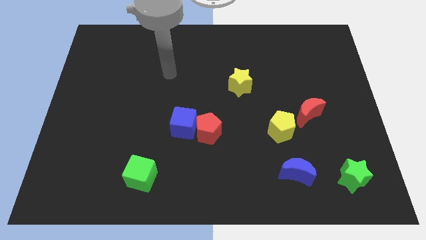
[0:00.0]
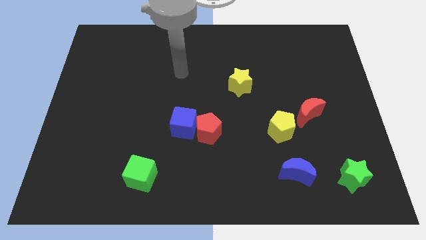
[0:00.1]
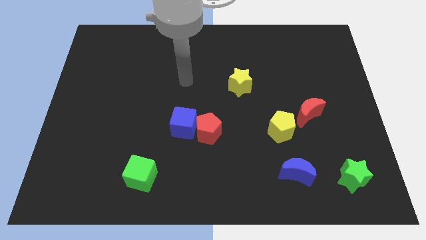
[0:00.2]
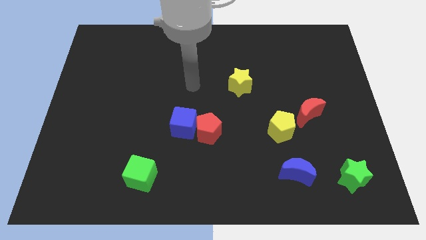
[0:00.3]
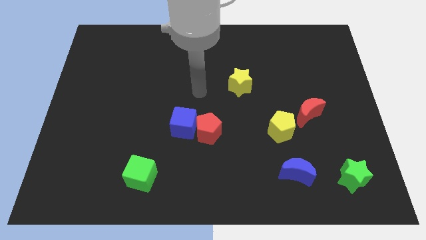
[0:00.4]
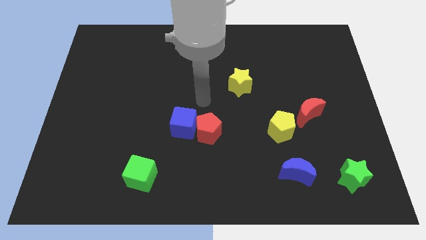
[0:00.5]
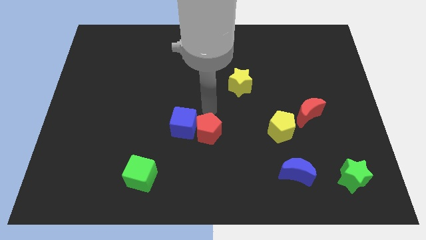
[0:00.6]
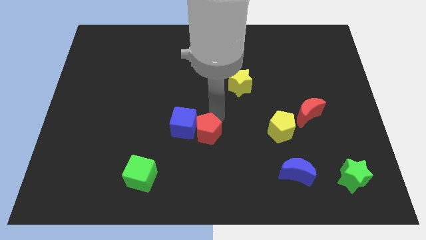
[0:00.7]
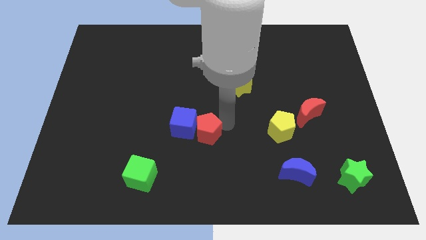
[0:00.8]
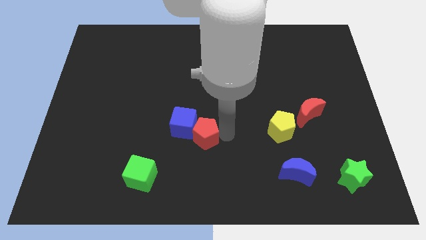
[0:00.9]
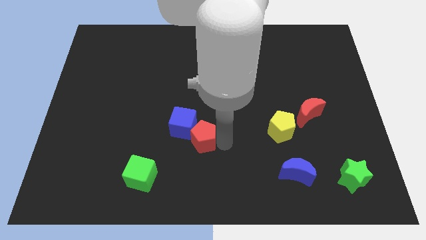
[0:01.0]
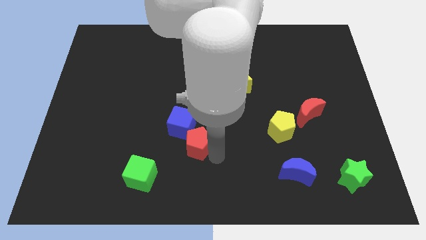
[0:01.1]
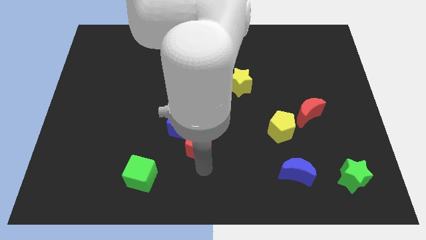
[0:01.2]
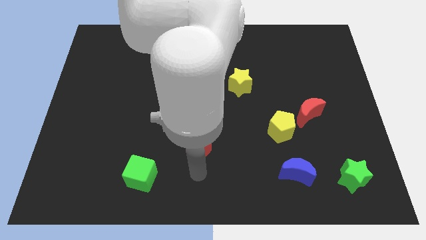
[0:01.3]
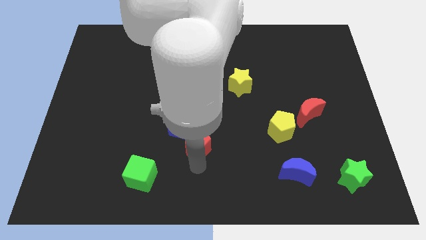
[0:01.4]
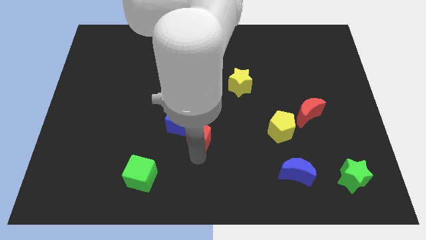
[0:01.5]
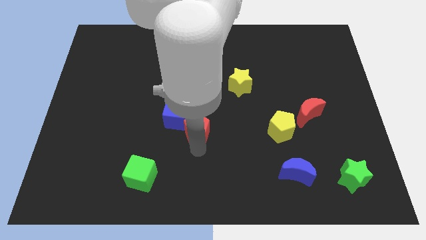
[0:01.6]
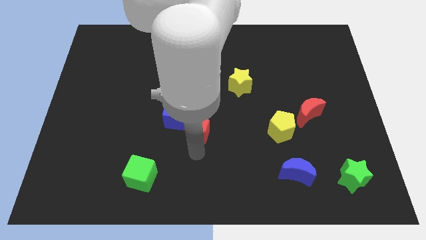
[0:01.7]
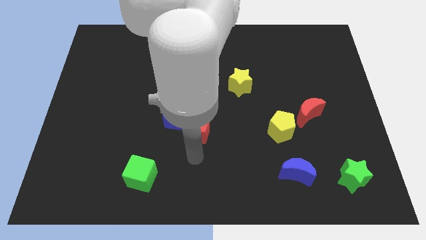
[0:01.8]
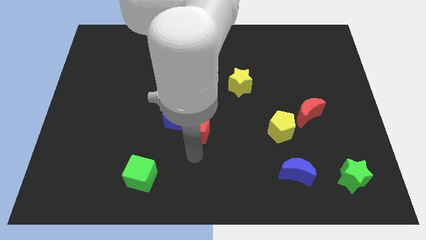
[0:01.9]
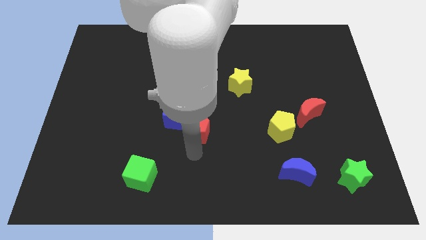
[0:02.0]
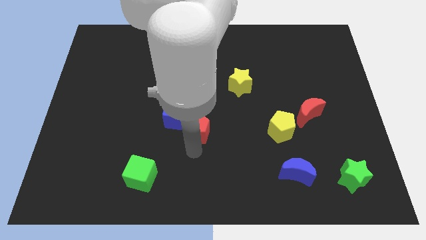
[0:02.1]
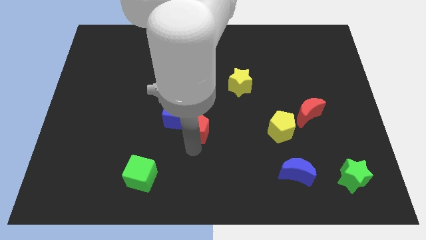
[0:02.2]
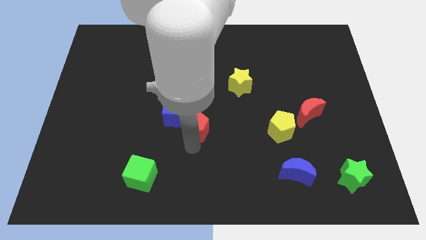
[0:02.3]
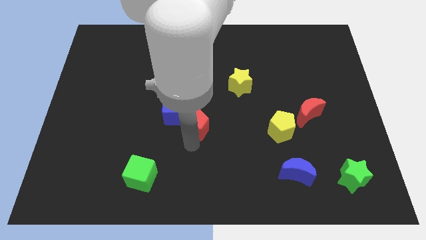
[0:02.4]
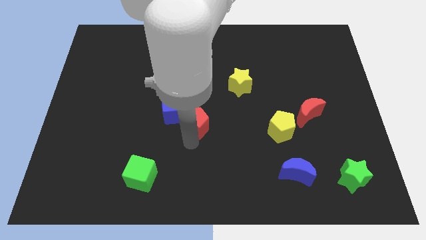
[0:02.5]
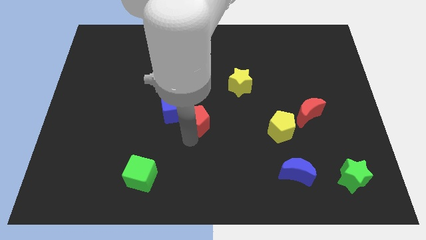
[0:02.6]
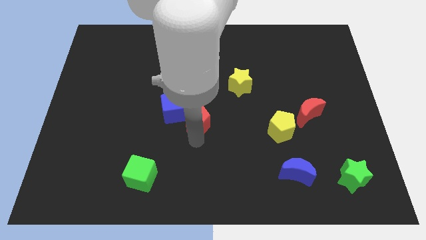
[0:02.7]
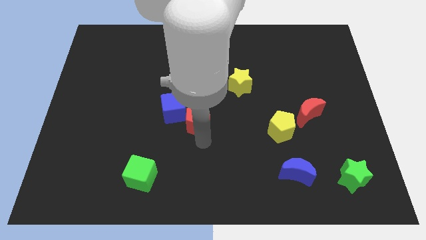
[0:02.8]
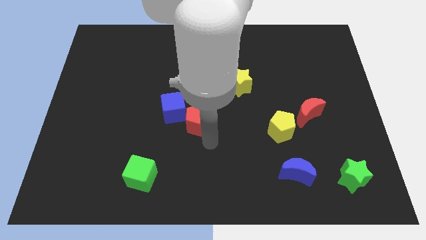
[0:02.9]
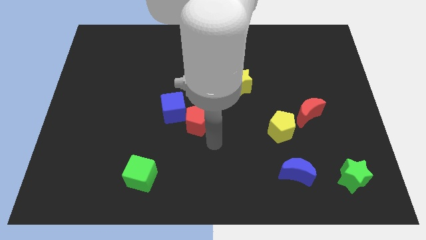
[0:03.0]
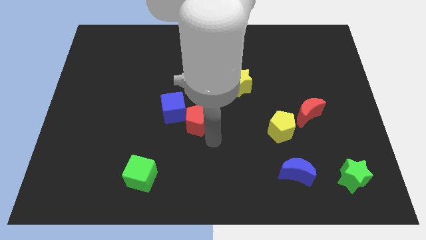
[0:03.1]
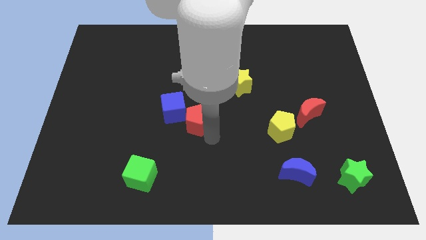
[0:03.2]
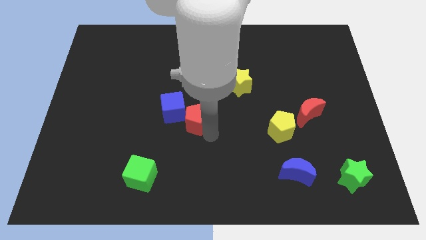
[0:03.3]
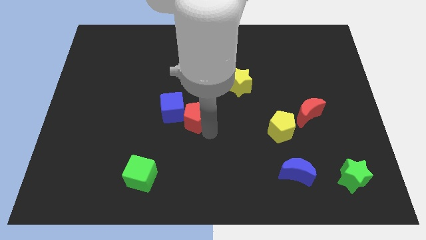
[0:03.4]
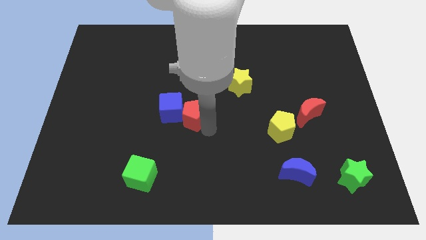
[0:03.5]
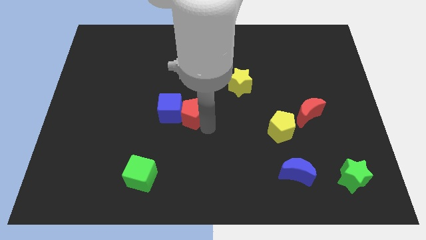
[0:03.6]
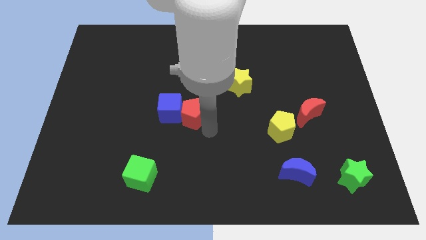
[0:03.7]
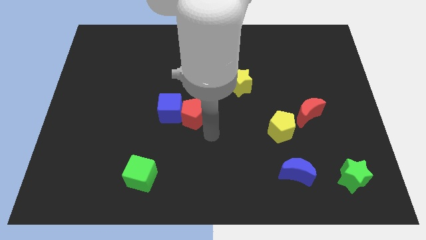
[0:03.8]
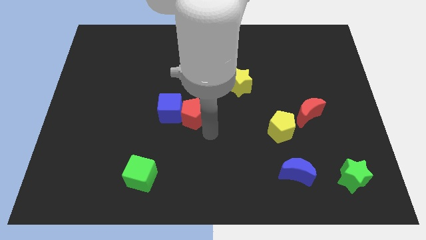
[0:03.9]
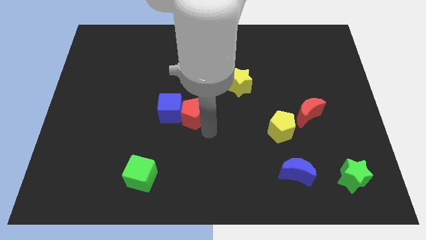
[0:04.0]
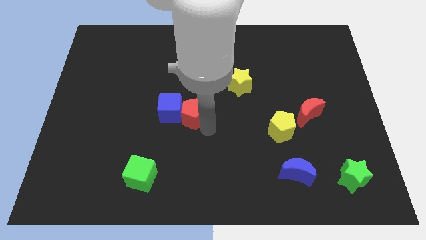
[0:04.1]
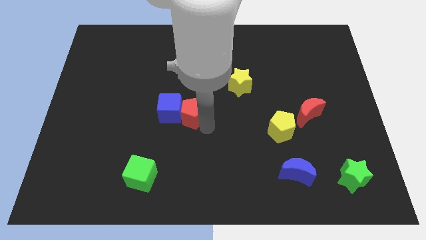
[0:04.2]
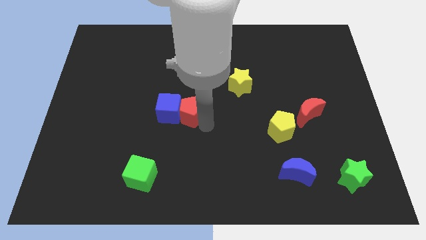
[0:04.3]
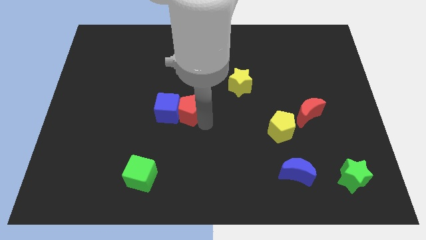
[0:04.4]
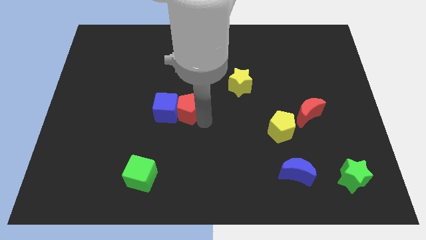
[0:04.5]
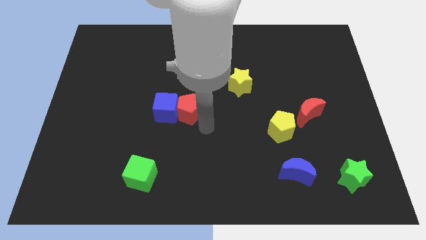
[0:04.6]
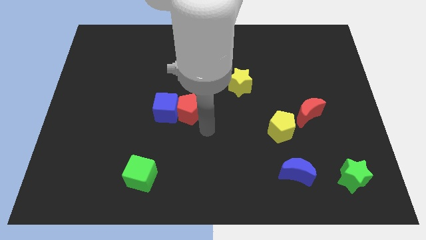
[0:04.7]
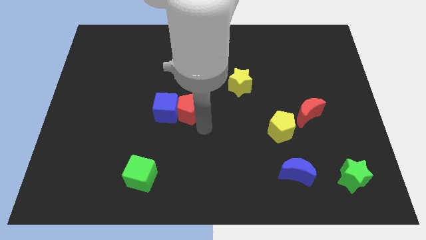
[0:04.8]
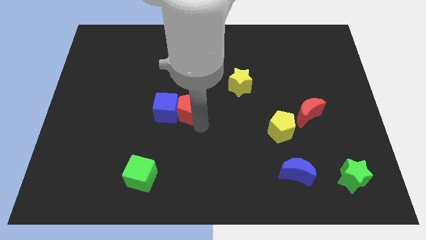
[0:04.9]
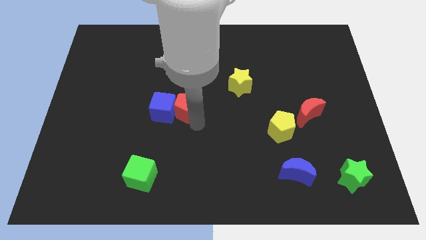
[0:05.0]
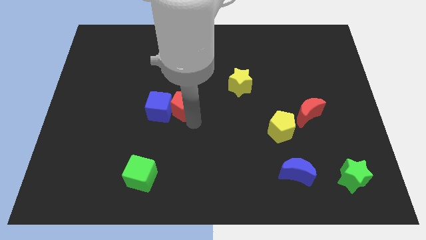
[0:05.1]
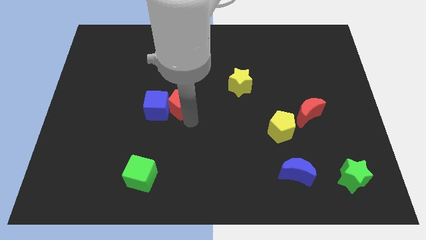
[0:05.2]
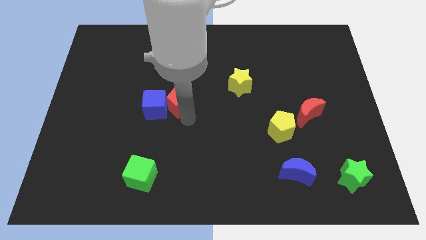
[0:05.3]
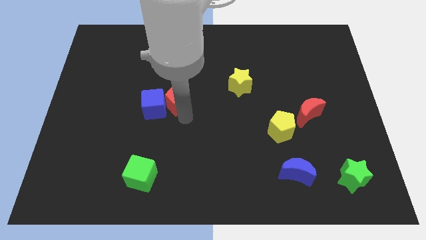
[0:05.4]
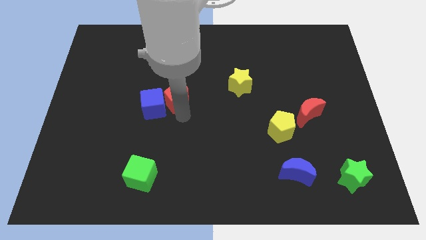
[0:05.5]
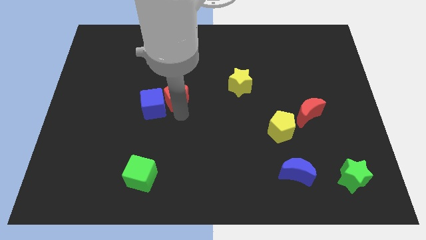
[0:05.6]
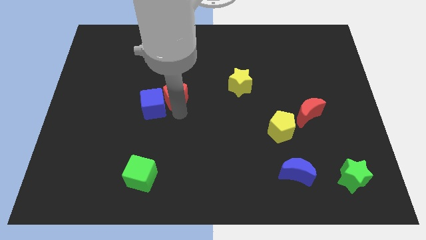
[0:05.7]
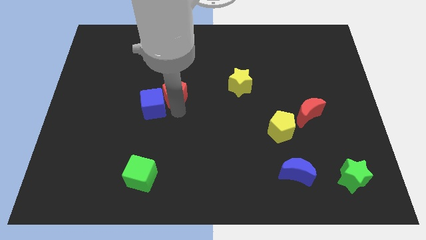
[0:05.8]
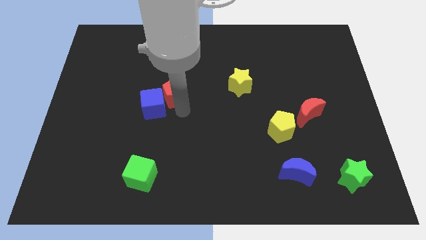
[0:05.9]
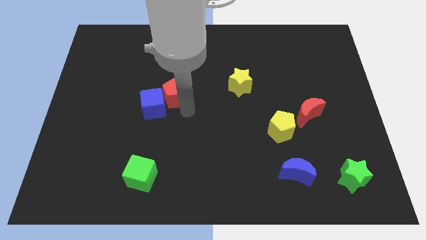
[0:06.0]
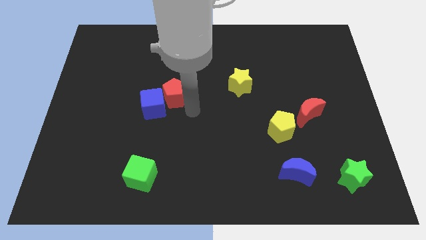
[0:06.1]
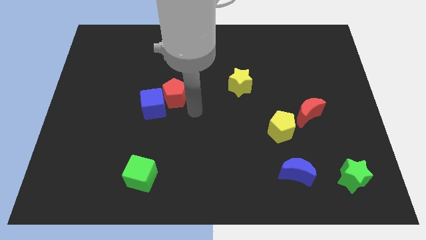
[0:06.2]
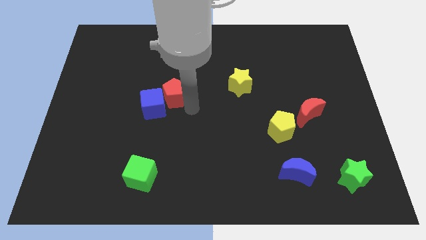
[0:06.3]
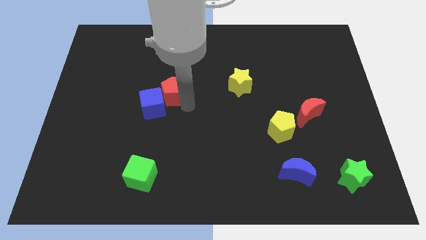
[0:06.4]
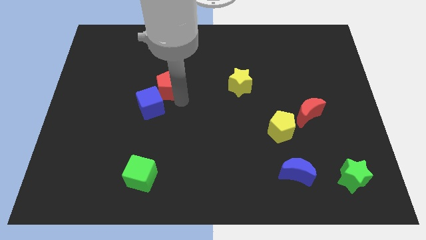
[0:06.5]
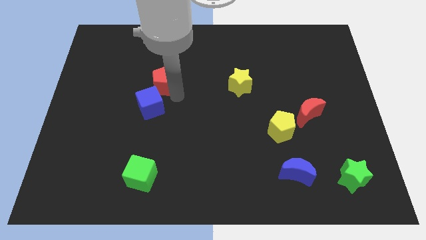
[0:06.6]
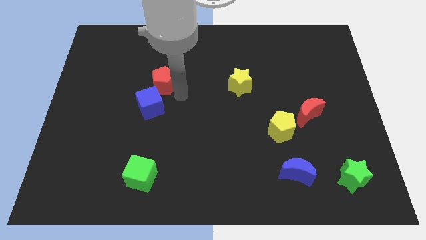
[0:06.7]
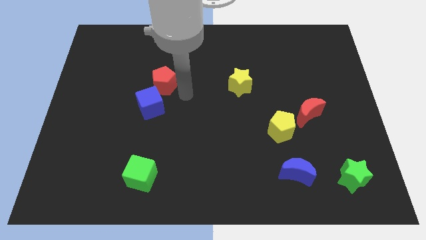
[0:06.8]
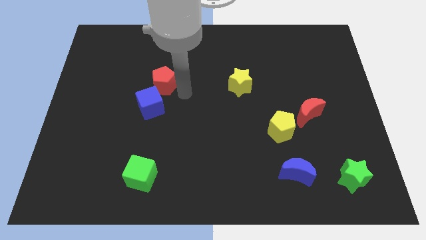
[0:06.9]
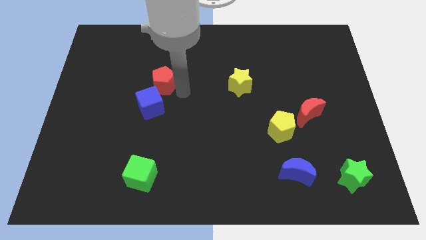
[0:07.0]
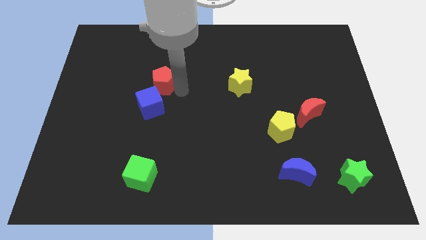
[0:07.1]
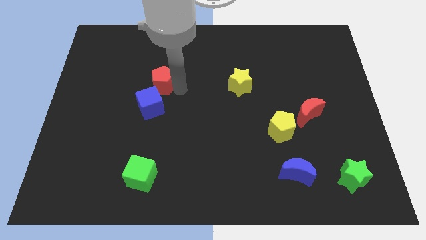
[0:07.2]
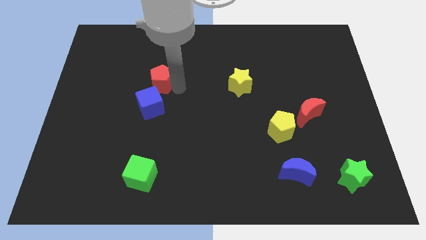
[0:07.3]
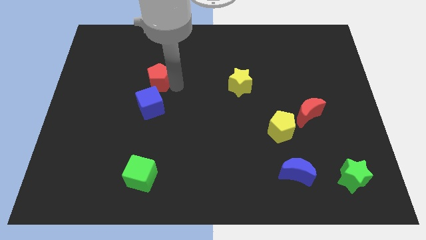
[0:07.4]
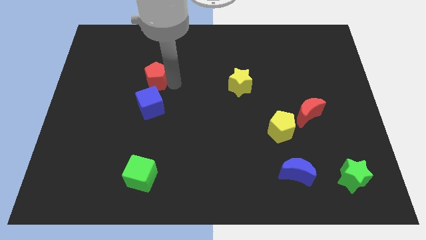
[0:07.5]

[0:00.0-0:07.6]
move the red pentagon up and to the left diagonally

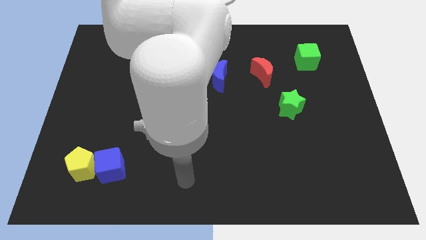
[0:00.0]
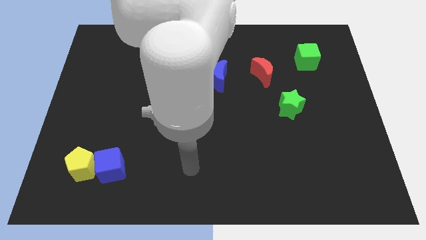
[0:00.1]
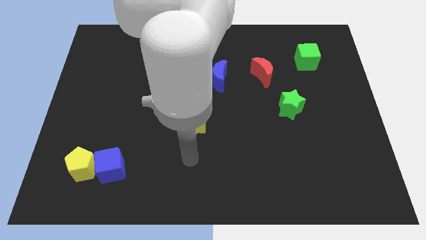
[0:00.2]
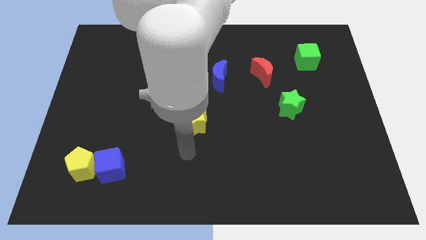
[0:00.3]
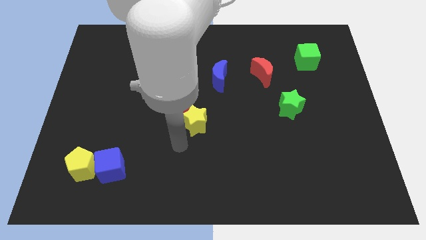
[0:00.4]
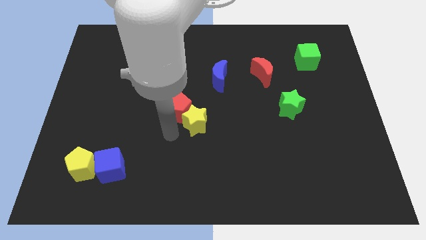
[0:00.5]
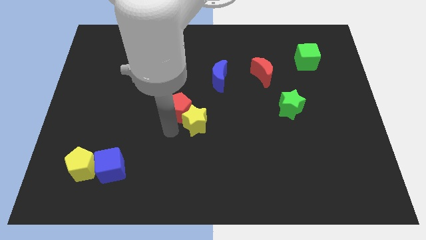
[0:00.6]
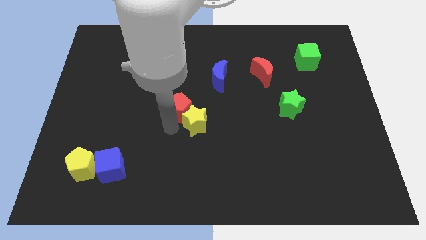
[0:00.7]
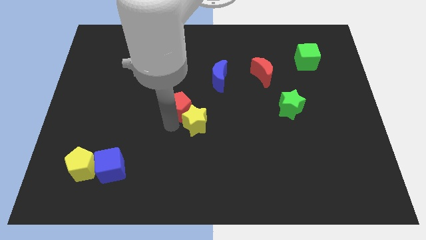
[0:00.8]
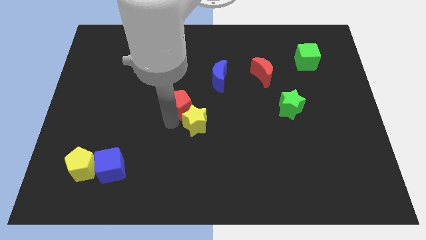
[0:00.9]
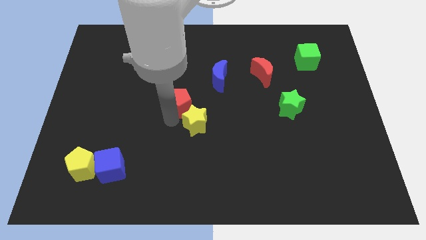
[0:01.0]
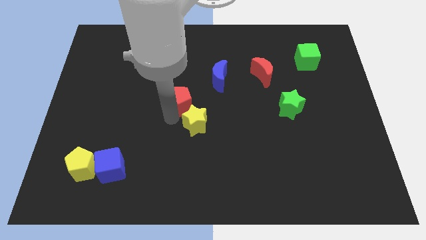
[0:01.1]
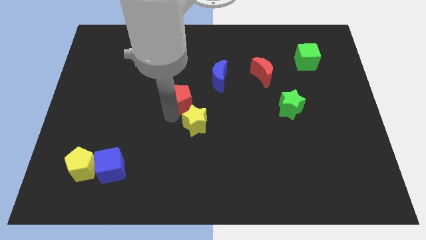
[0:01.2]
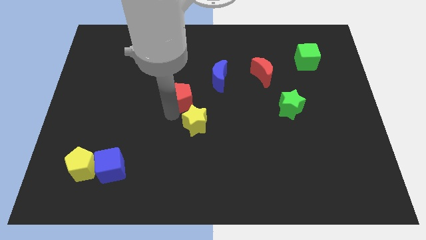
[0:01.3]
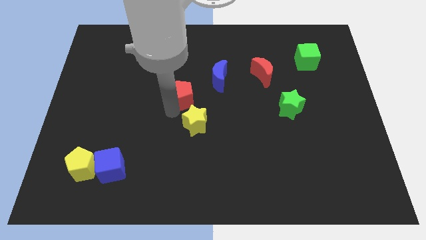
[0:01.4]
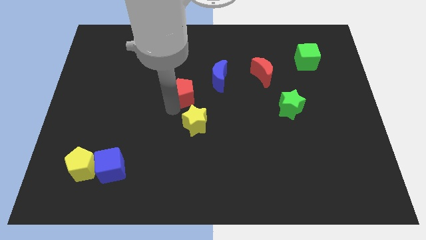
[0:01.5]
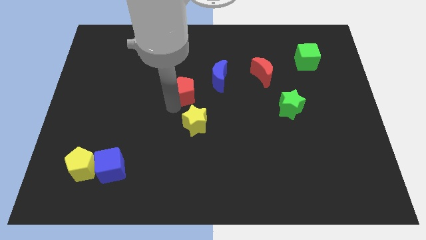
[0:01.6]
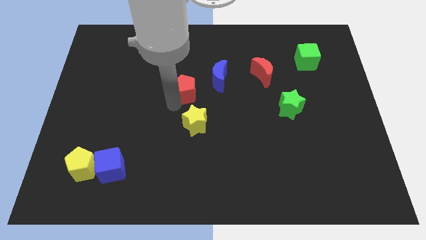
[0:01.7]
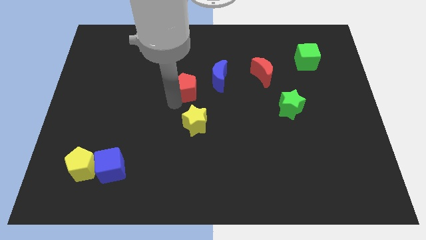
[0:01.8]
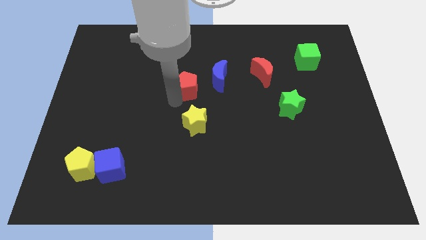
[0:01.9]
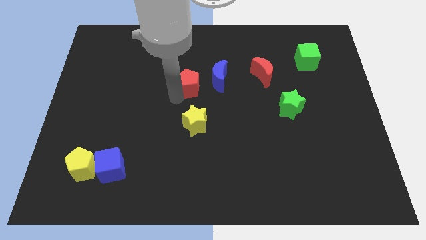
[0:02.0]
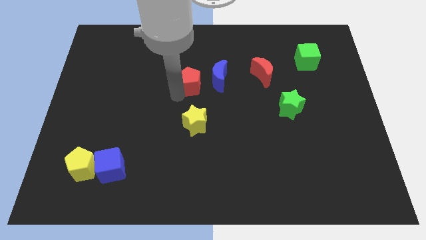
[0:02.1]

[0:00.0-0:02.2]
push the red pentagon upwards and then to the right slightly
